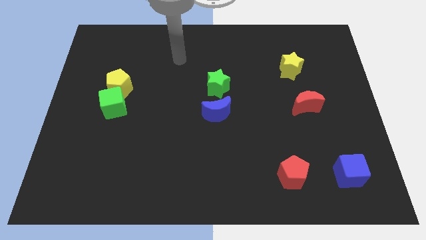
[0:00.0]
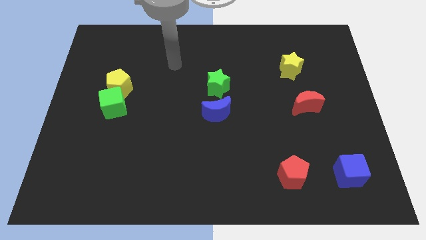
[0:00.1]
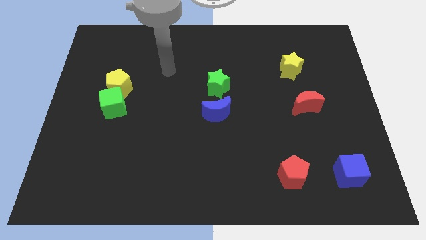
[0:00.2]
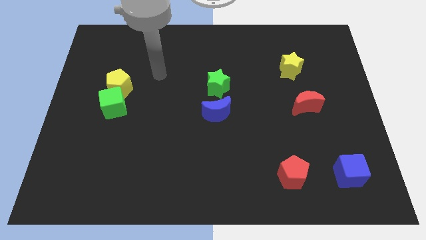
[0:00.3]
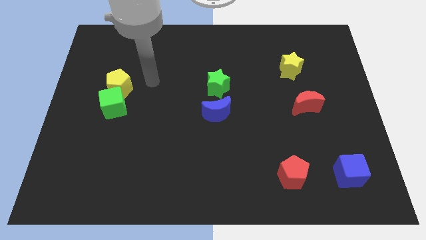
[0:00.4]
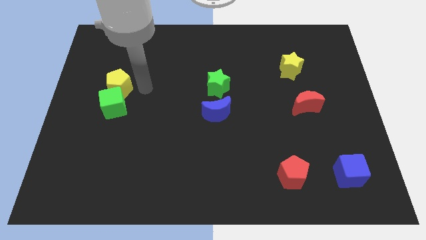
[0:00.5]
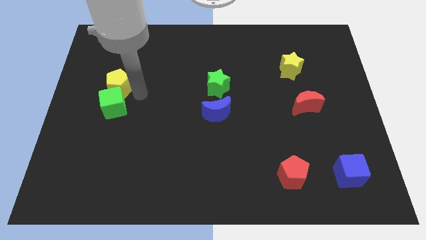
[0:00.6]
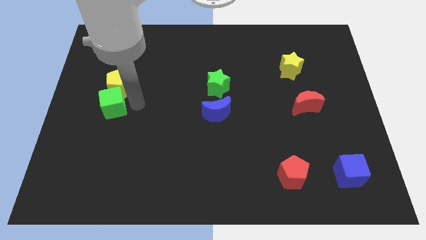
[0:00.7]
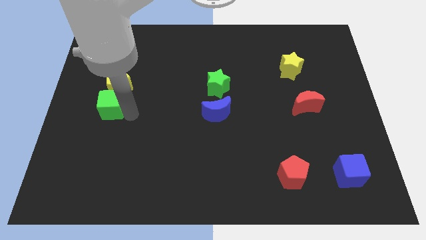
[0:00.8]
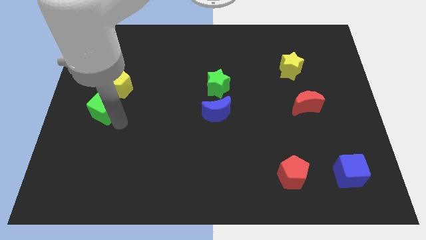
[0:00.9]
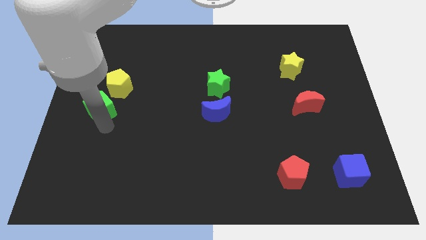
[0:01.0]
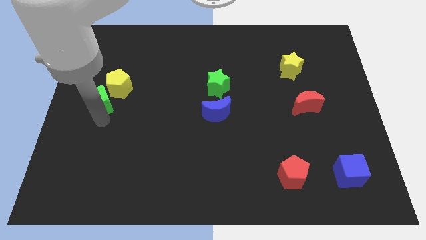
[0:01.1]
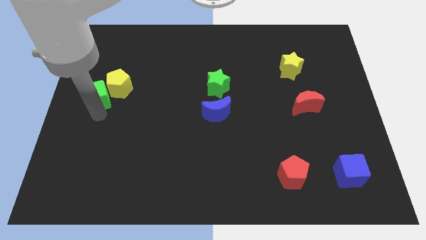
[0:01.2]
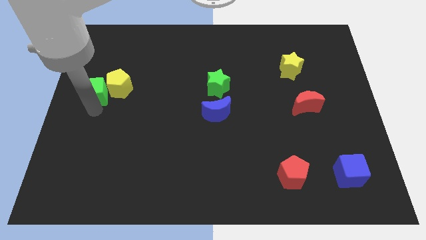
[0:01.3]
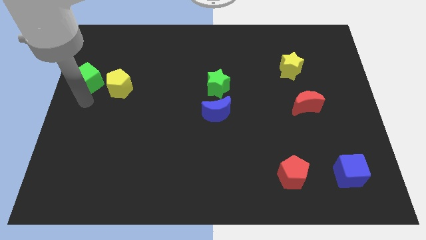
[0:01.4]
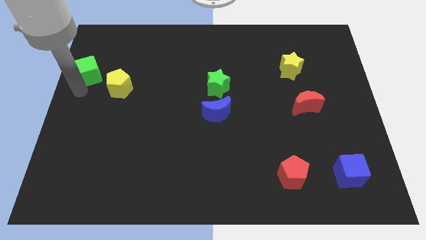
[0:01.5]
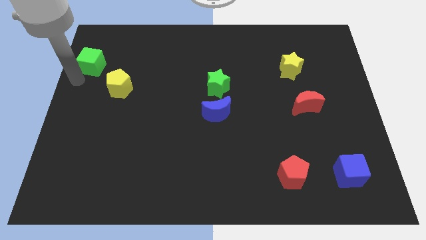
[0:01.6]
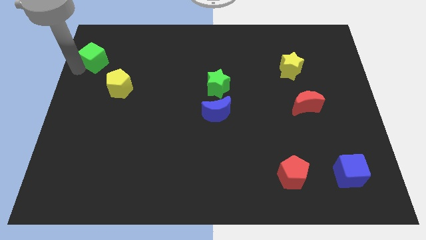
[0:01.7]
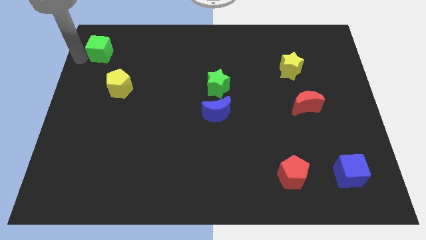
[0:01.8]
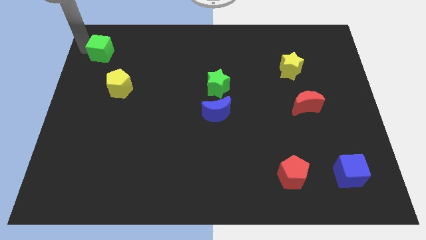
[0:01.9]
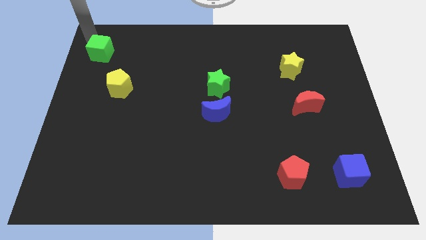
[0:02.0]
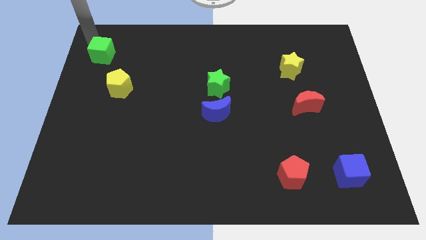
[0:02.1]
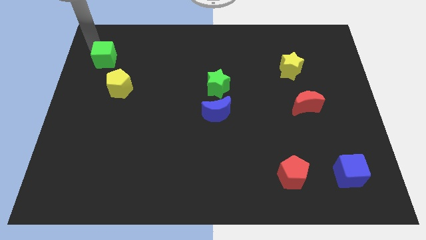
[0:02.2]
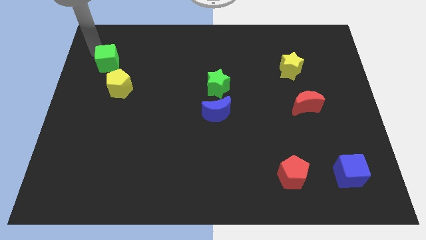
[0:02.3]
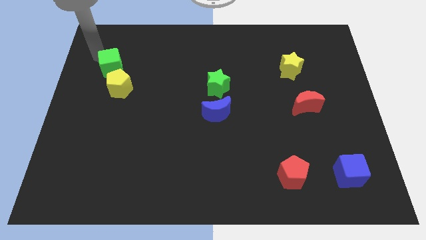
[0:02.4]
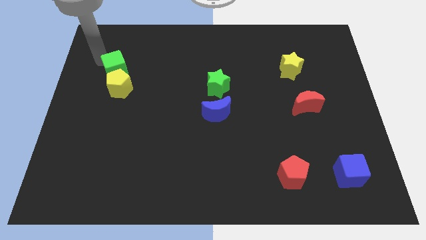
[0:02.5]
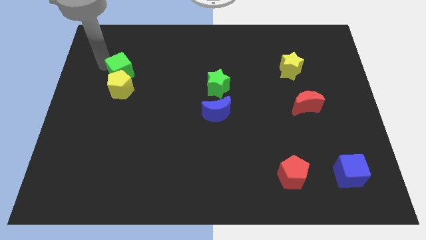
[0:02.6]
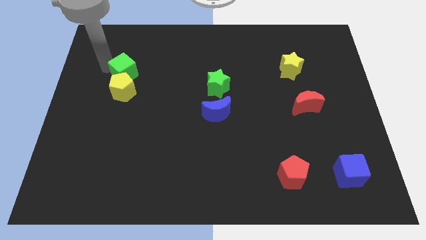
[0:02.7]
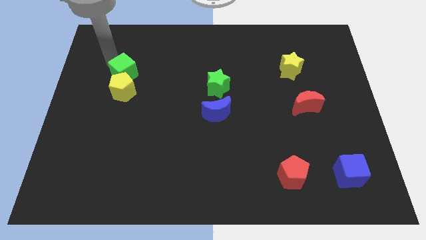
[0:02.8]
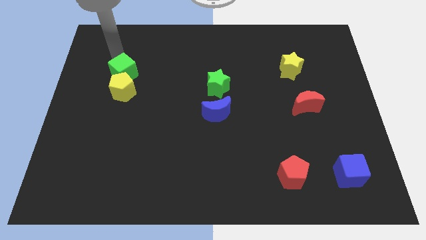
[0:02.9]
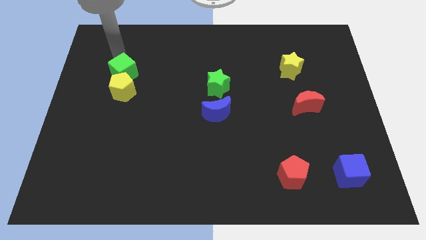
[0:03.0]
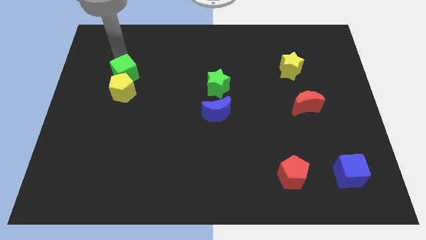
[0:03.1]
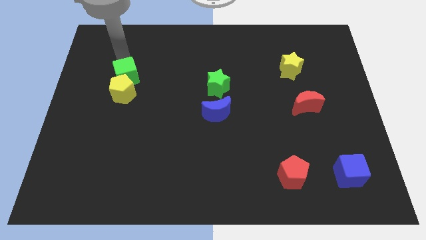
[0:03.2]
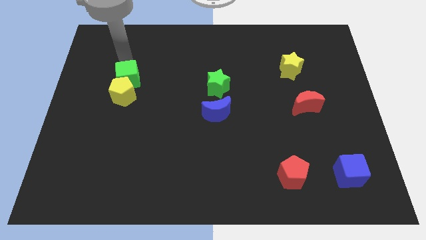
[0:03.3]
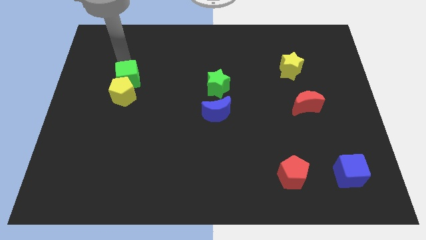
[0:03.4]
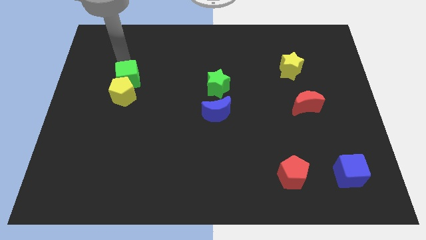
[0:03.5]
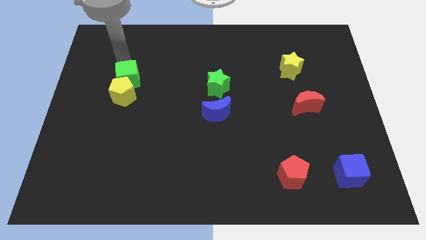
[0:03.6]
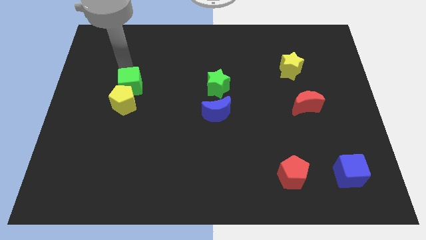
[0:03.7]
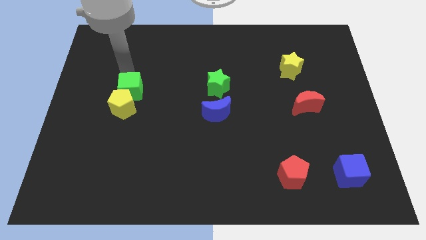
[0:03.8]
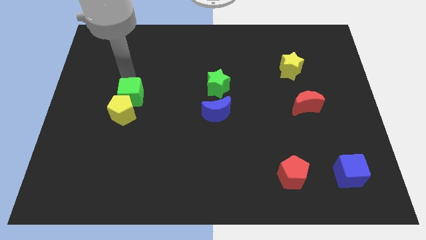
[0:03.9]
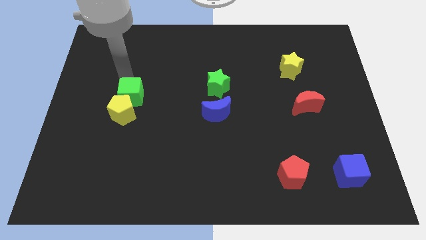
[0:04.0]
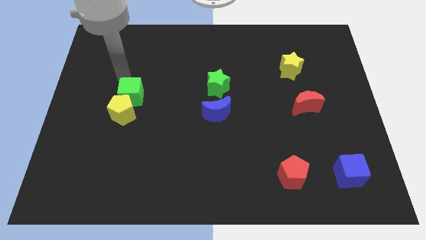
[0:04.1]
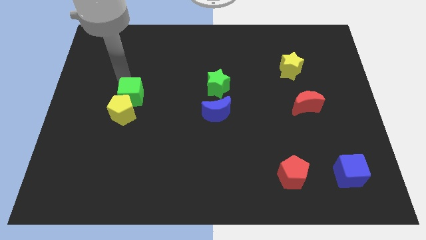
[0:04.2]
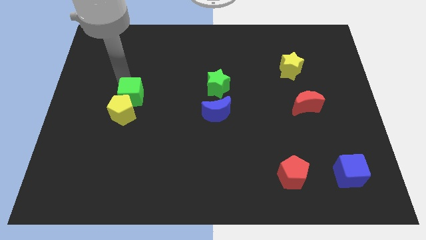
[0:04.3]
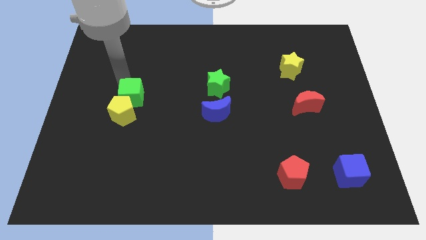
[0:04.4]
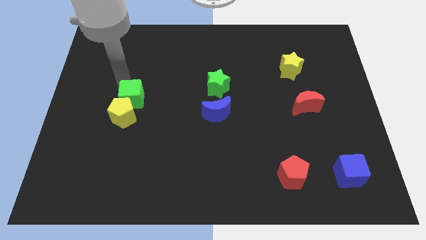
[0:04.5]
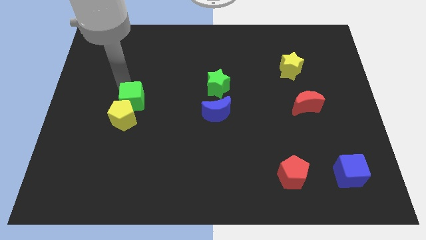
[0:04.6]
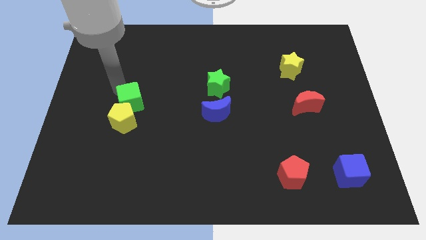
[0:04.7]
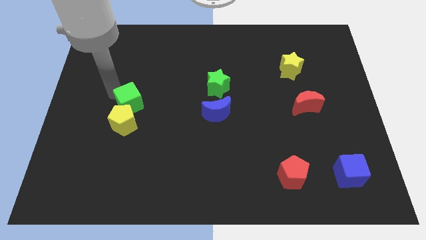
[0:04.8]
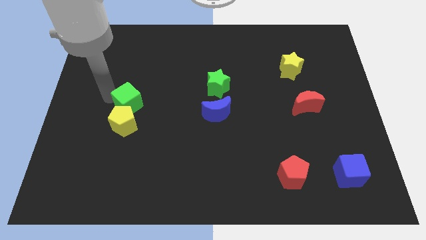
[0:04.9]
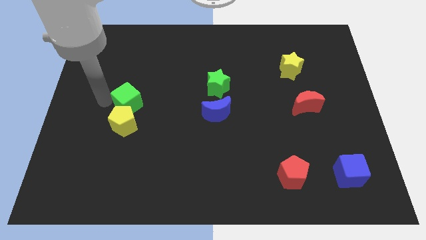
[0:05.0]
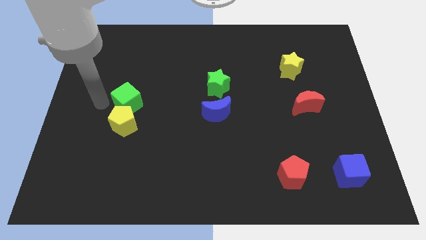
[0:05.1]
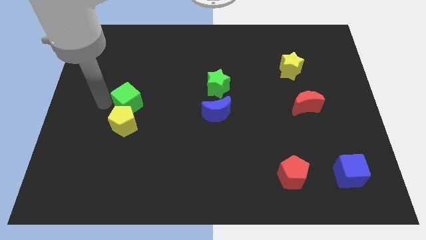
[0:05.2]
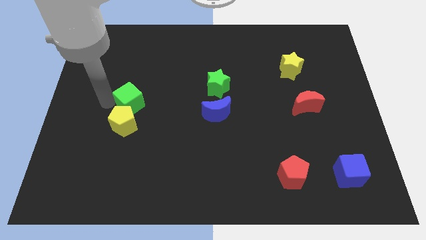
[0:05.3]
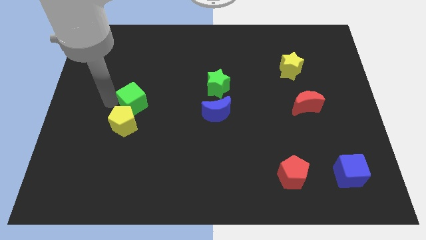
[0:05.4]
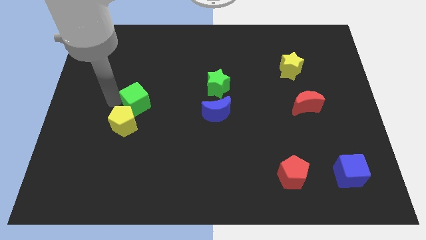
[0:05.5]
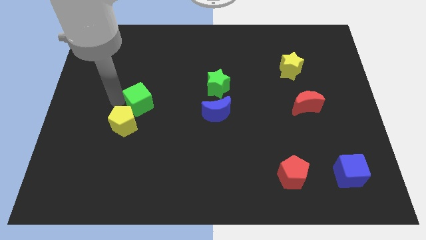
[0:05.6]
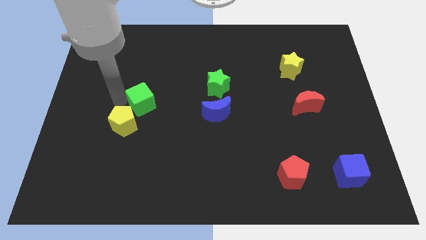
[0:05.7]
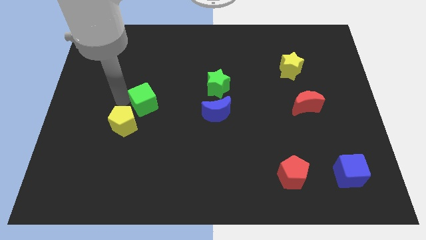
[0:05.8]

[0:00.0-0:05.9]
slightly push the green cube to the right

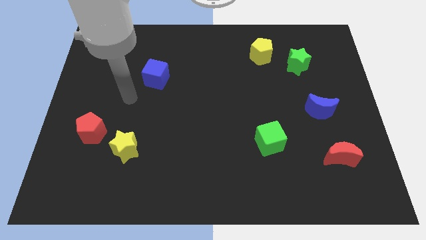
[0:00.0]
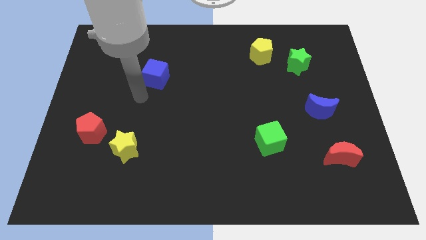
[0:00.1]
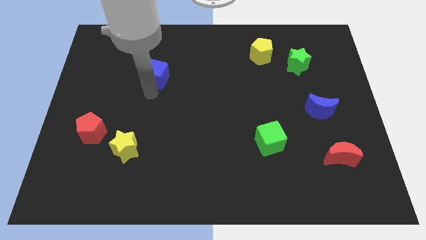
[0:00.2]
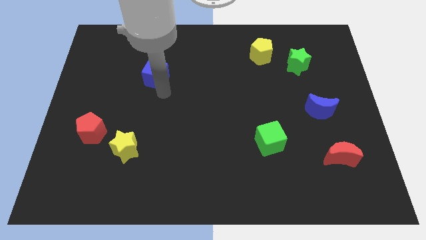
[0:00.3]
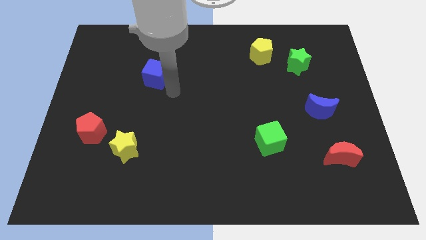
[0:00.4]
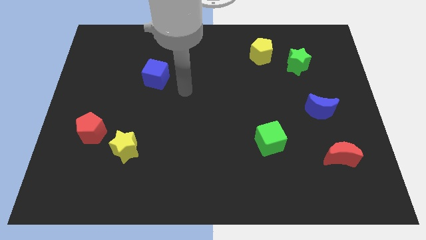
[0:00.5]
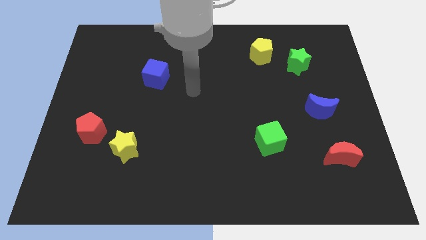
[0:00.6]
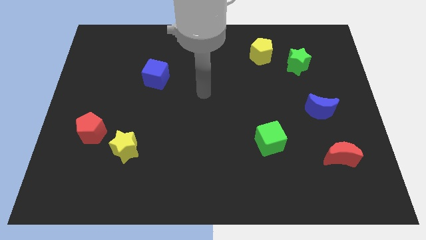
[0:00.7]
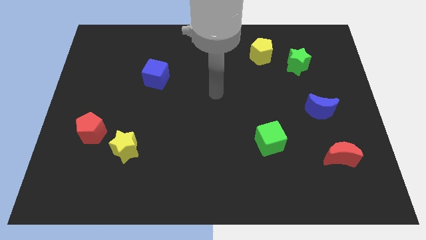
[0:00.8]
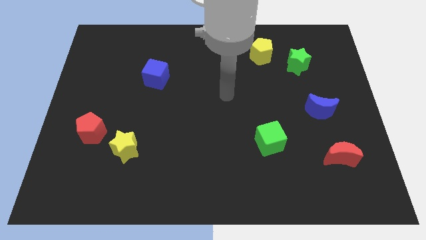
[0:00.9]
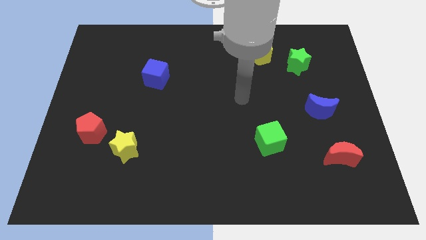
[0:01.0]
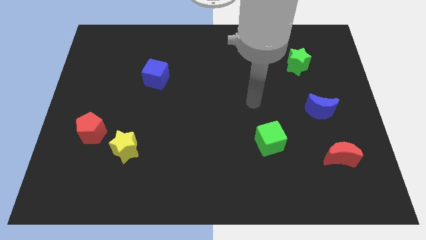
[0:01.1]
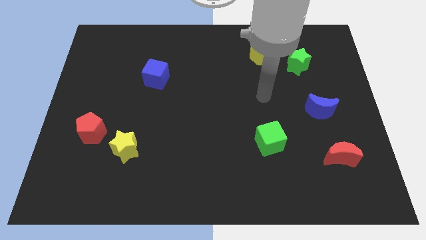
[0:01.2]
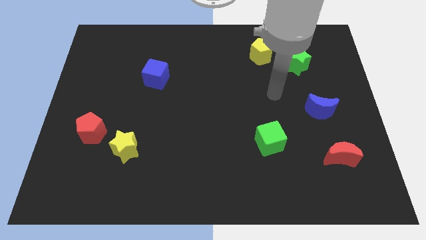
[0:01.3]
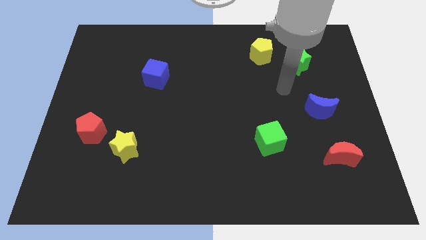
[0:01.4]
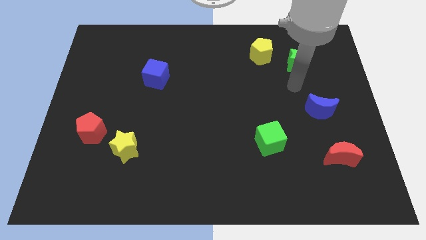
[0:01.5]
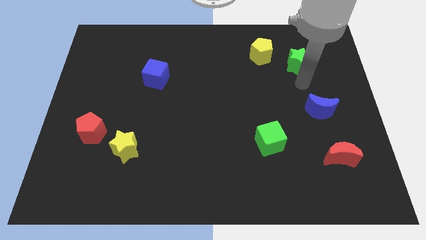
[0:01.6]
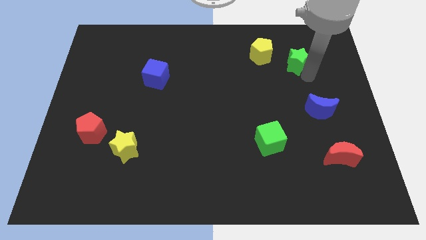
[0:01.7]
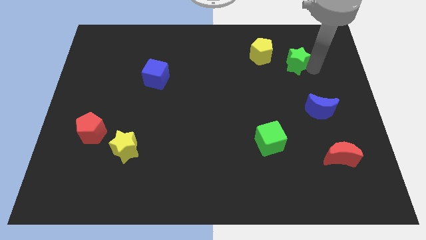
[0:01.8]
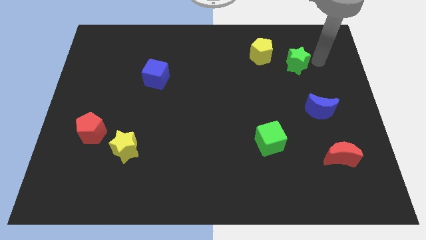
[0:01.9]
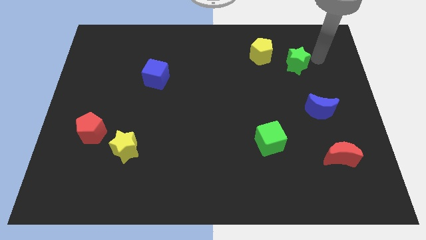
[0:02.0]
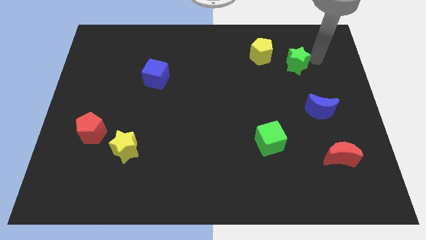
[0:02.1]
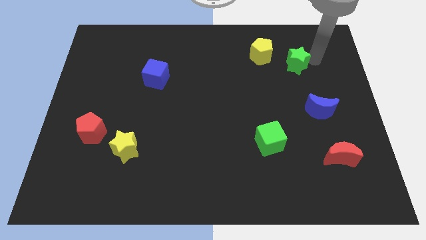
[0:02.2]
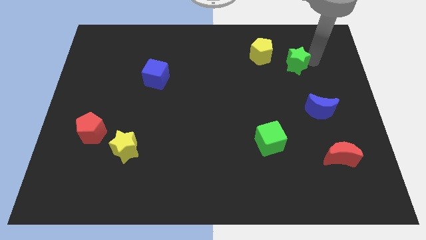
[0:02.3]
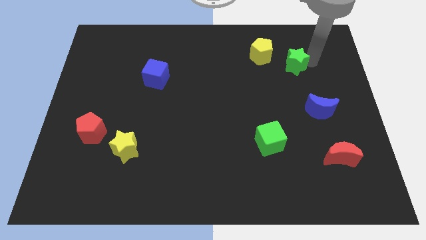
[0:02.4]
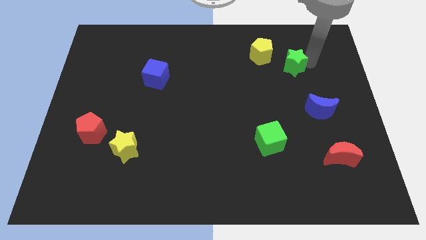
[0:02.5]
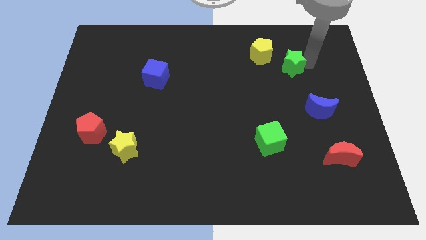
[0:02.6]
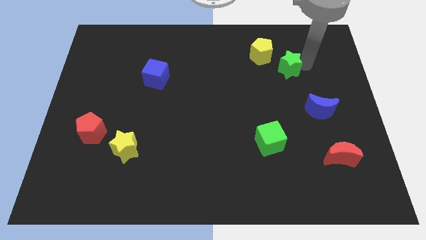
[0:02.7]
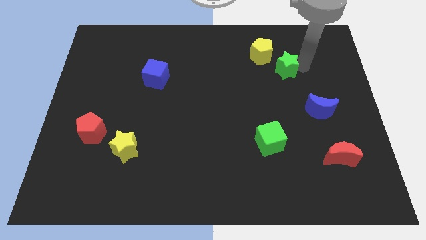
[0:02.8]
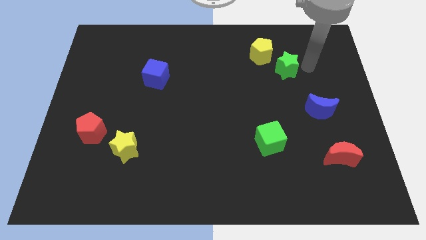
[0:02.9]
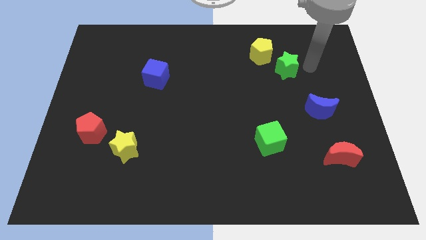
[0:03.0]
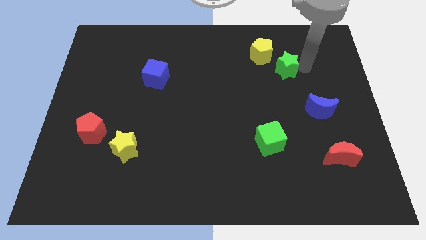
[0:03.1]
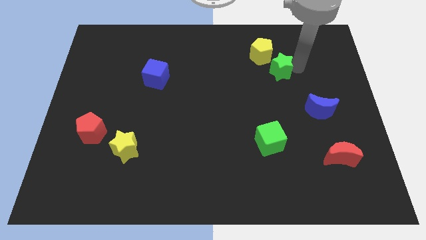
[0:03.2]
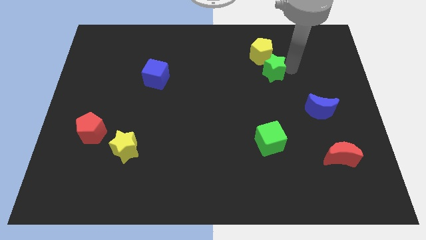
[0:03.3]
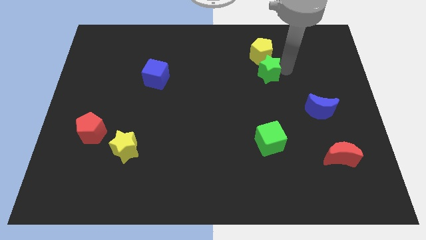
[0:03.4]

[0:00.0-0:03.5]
move the green star left a little
